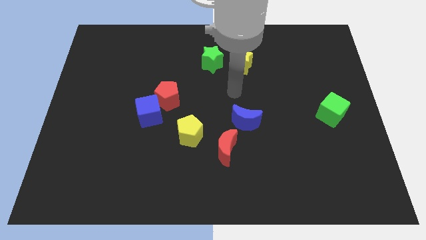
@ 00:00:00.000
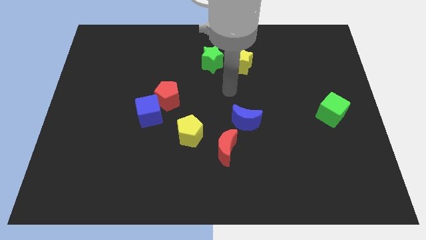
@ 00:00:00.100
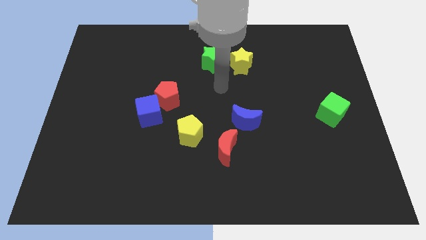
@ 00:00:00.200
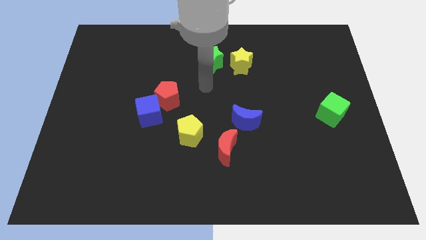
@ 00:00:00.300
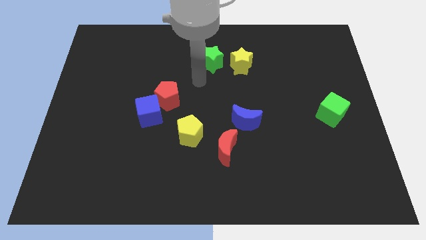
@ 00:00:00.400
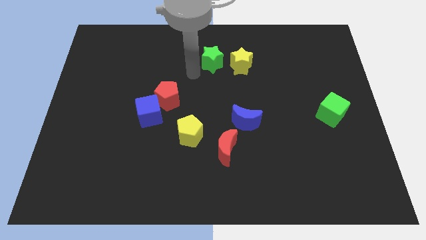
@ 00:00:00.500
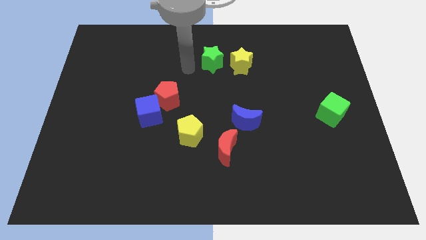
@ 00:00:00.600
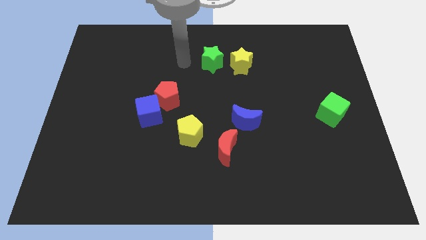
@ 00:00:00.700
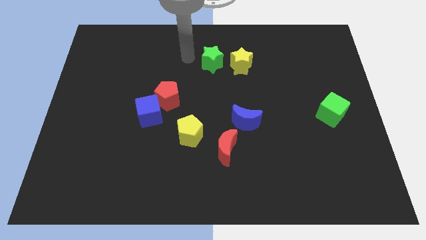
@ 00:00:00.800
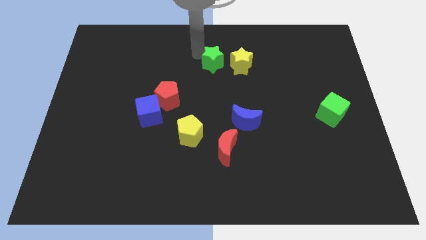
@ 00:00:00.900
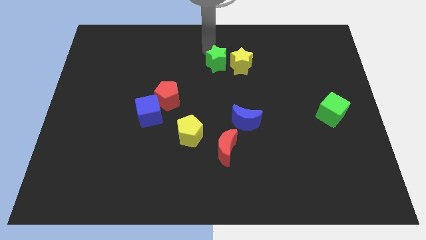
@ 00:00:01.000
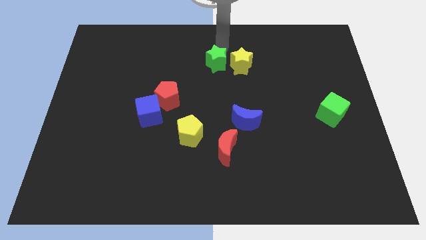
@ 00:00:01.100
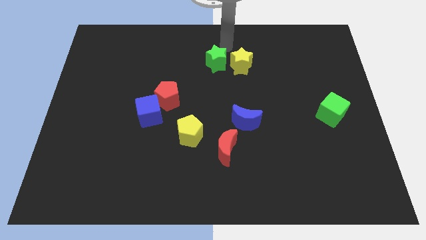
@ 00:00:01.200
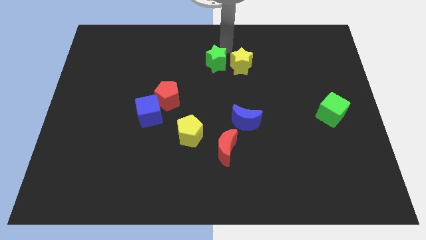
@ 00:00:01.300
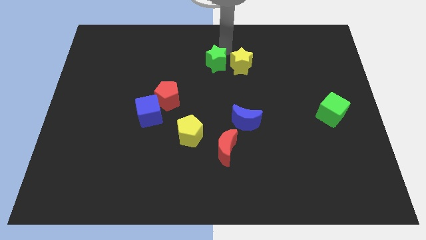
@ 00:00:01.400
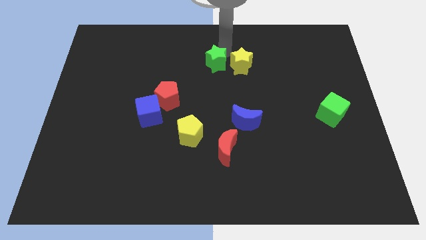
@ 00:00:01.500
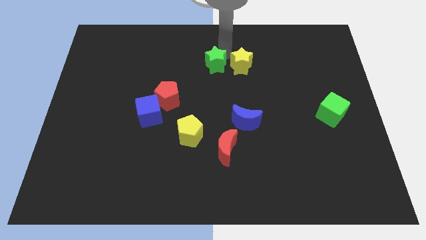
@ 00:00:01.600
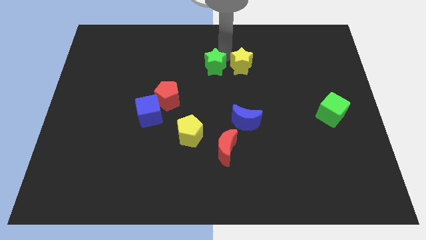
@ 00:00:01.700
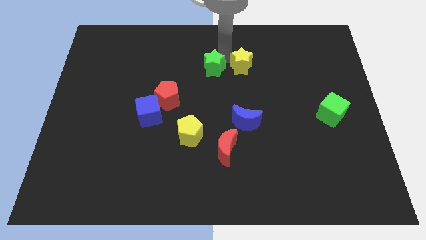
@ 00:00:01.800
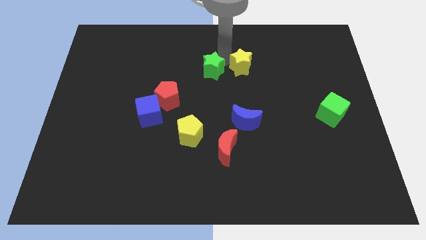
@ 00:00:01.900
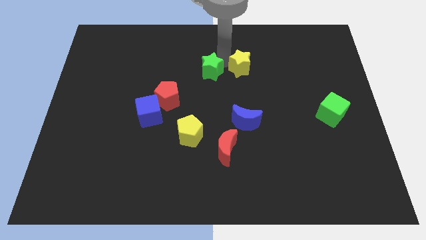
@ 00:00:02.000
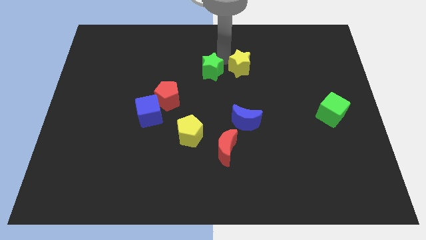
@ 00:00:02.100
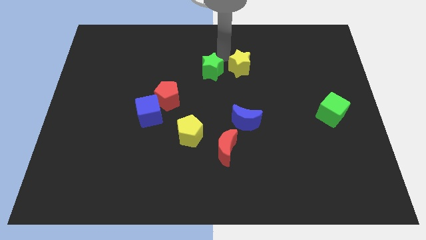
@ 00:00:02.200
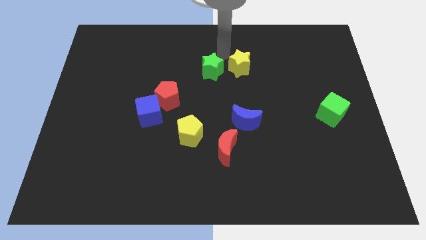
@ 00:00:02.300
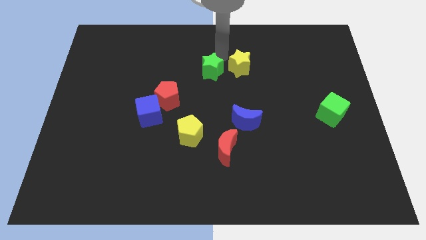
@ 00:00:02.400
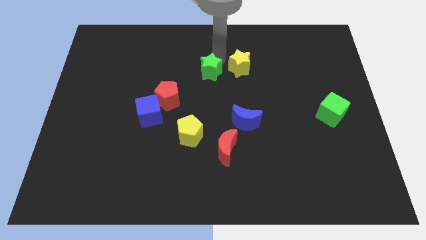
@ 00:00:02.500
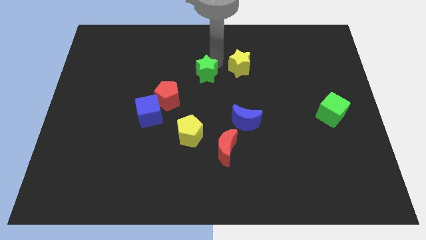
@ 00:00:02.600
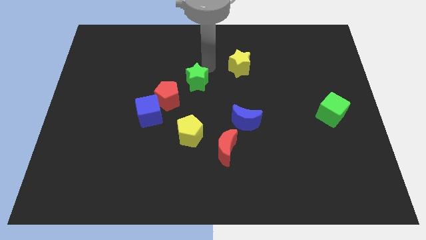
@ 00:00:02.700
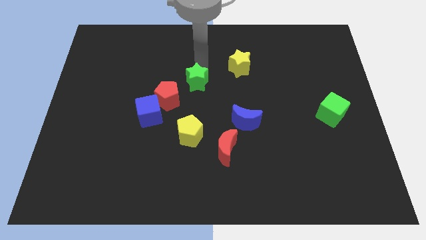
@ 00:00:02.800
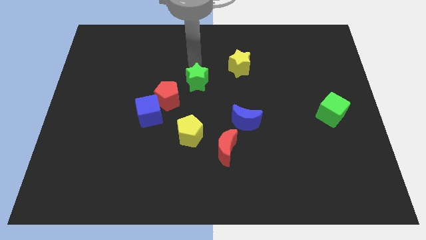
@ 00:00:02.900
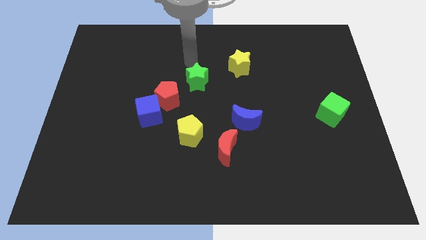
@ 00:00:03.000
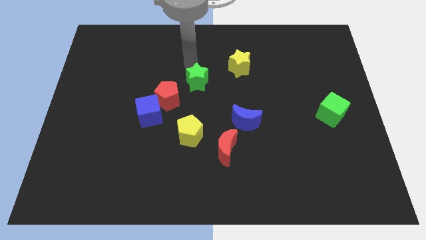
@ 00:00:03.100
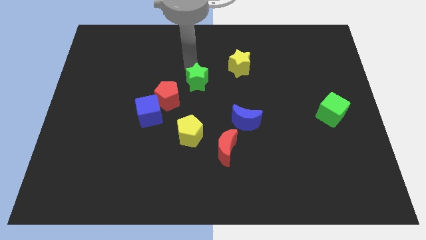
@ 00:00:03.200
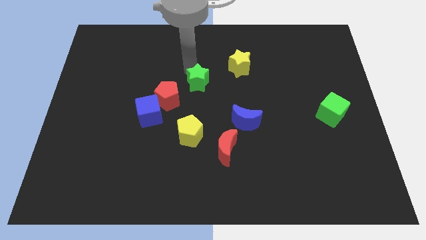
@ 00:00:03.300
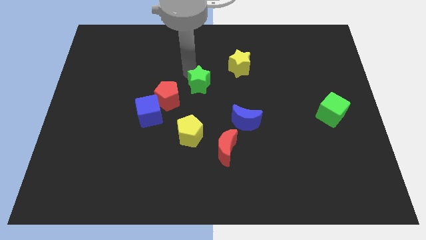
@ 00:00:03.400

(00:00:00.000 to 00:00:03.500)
slide the green star downwards a bit

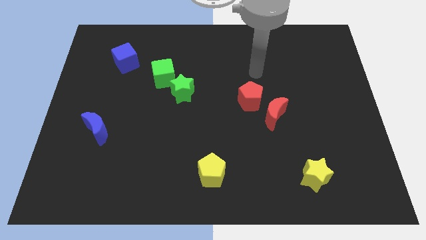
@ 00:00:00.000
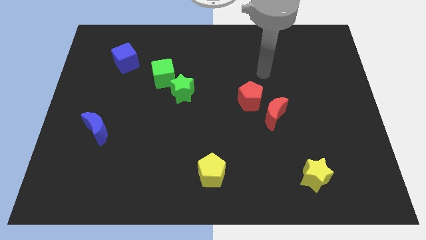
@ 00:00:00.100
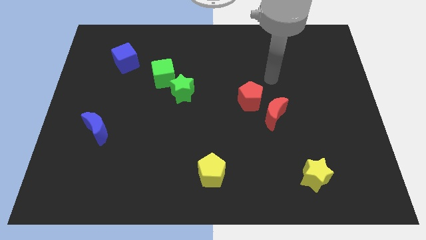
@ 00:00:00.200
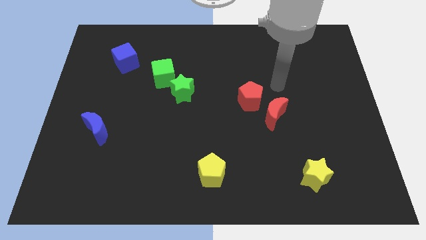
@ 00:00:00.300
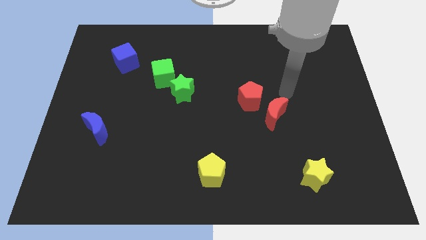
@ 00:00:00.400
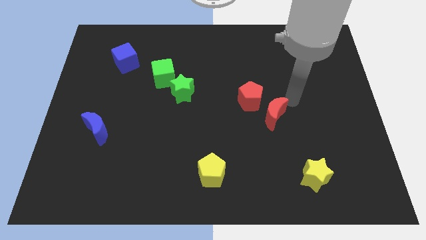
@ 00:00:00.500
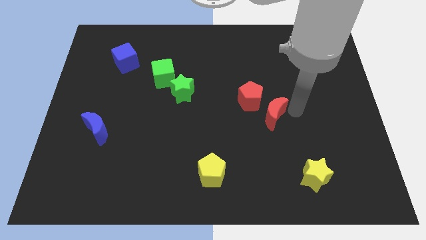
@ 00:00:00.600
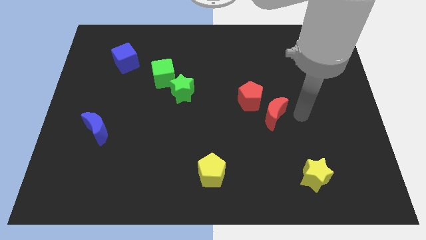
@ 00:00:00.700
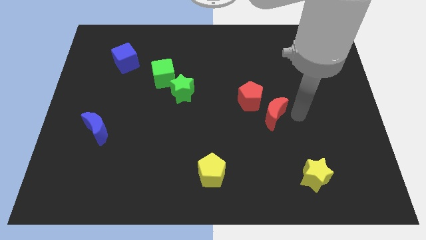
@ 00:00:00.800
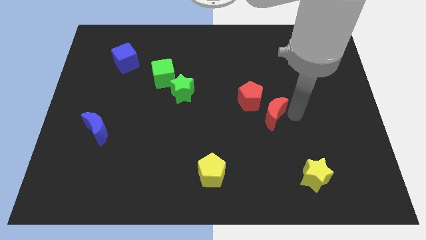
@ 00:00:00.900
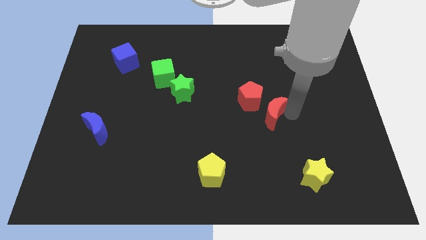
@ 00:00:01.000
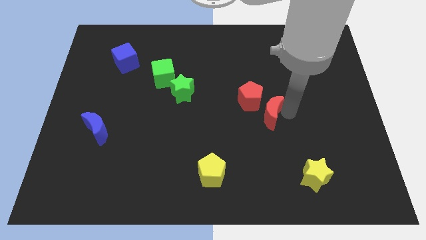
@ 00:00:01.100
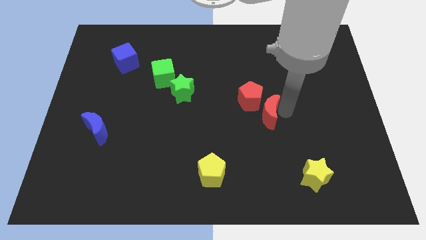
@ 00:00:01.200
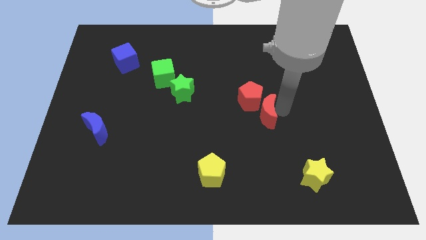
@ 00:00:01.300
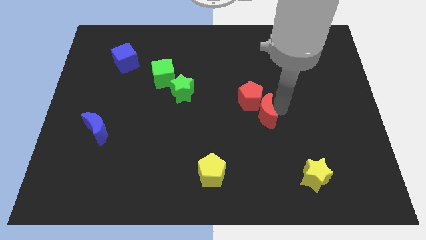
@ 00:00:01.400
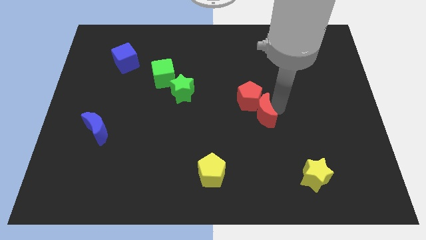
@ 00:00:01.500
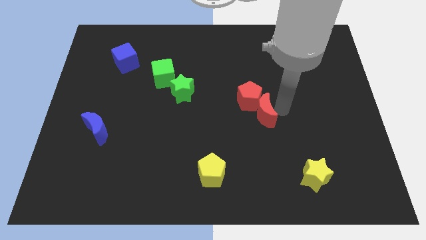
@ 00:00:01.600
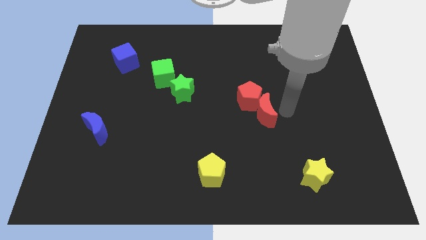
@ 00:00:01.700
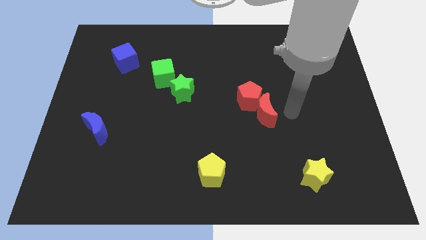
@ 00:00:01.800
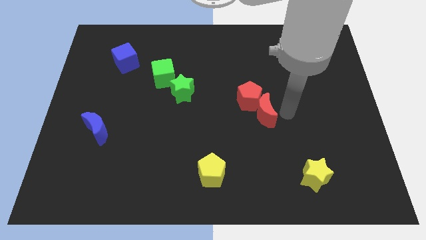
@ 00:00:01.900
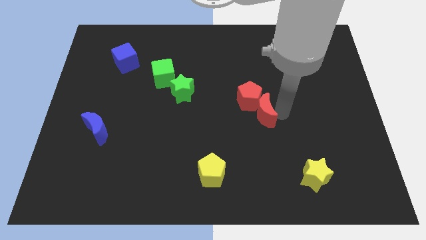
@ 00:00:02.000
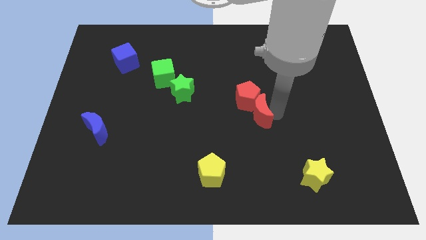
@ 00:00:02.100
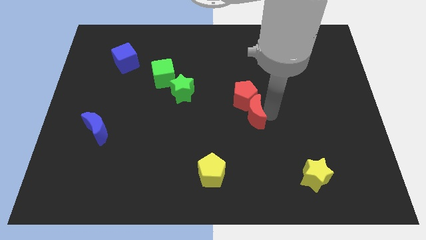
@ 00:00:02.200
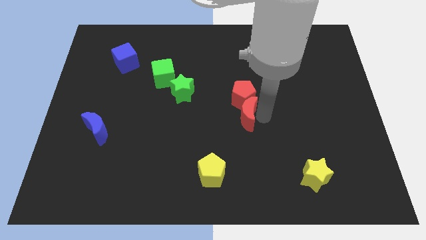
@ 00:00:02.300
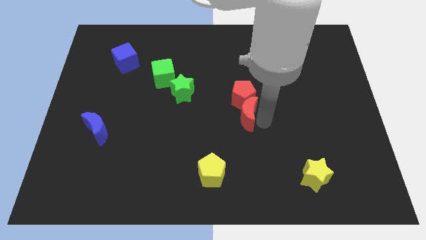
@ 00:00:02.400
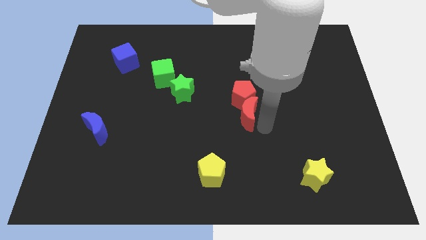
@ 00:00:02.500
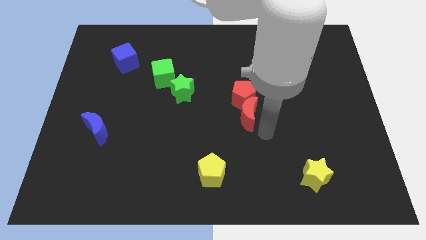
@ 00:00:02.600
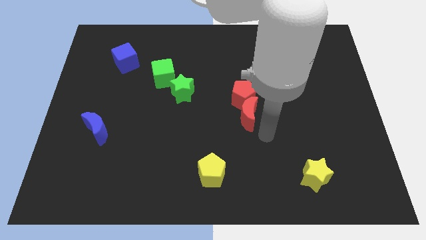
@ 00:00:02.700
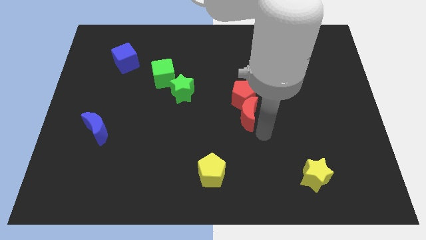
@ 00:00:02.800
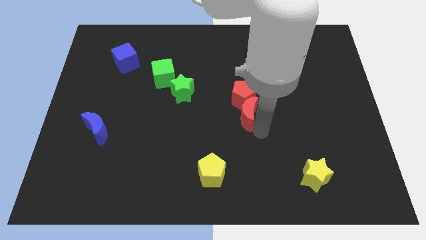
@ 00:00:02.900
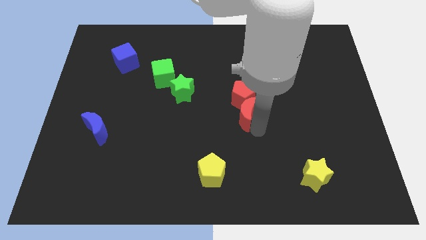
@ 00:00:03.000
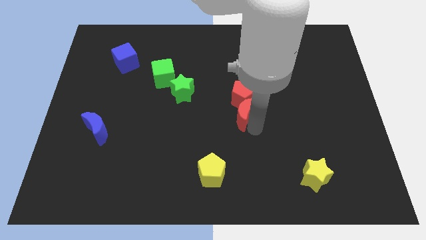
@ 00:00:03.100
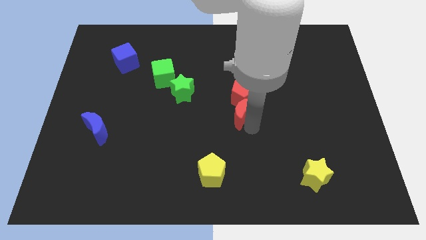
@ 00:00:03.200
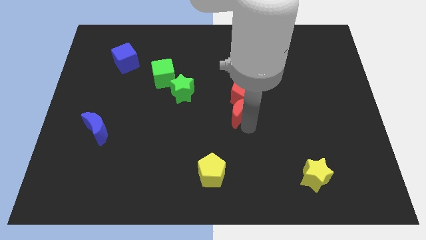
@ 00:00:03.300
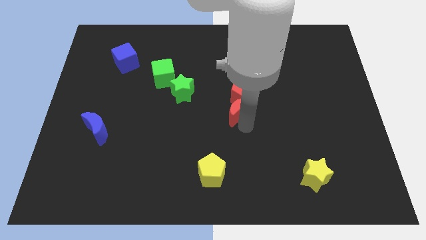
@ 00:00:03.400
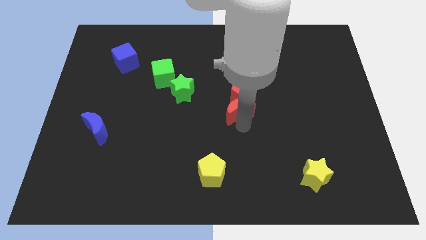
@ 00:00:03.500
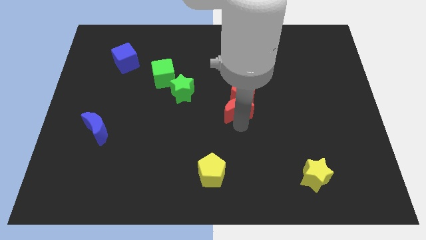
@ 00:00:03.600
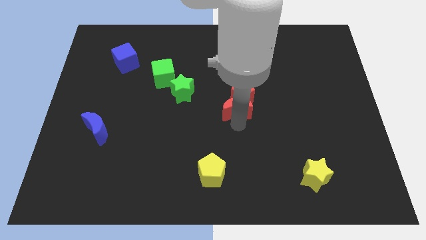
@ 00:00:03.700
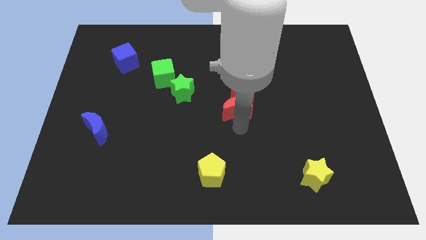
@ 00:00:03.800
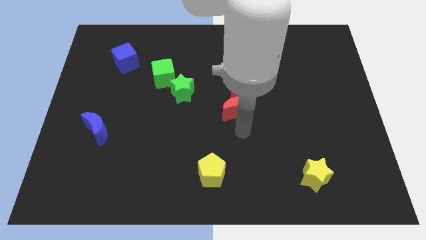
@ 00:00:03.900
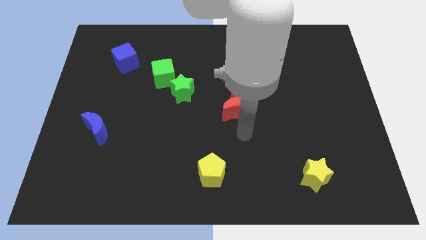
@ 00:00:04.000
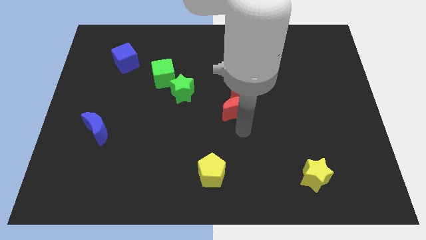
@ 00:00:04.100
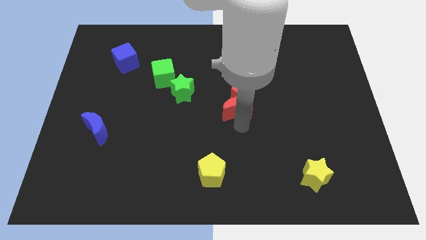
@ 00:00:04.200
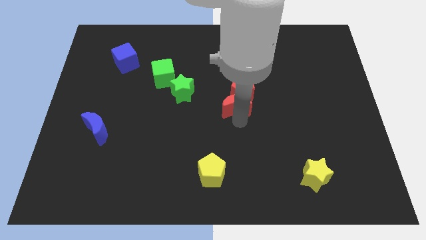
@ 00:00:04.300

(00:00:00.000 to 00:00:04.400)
slightly slide the red moon up and then left

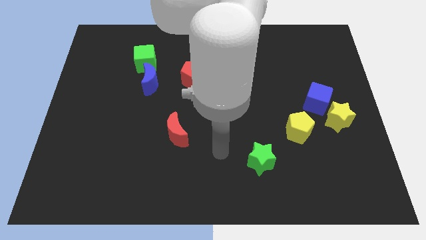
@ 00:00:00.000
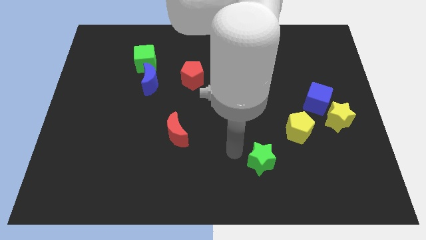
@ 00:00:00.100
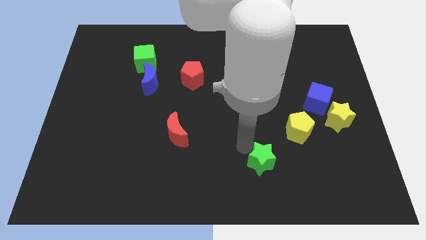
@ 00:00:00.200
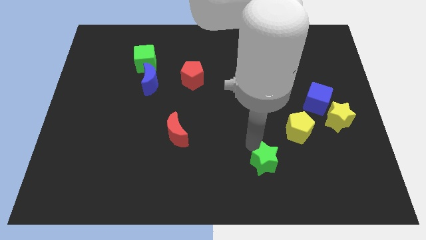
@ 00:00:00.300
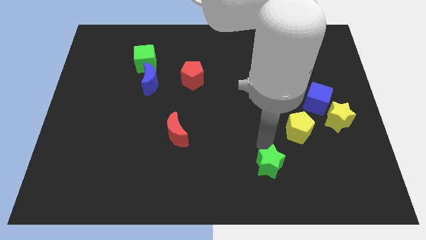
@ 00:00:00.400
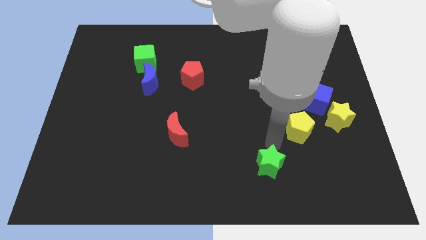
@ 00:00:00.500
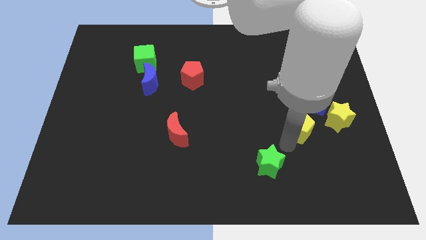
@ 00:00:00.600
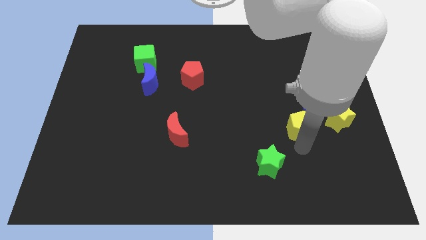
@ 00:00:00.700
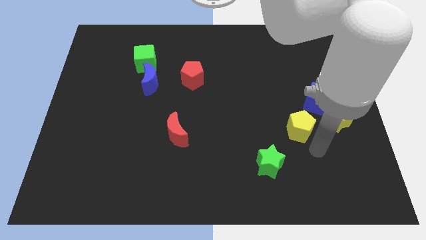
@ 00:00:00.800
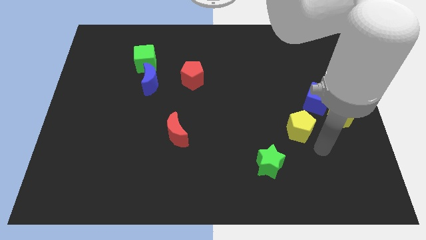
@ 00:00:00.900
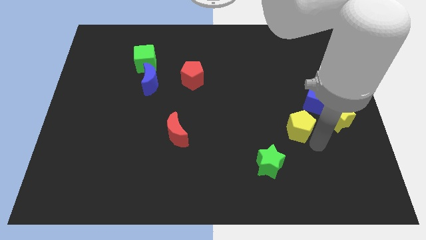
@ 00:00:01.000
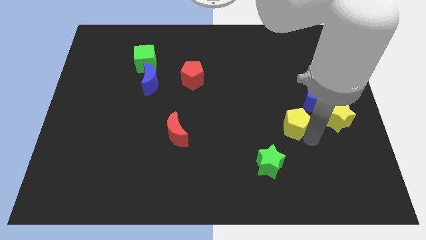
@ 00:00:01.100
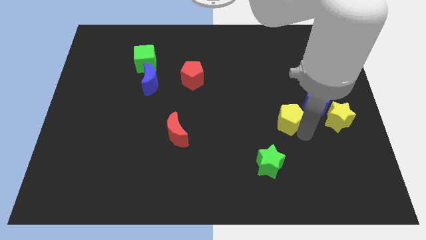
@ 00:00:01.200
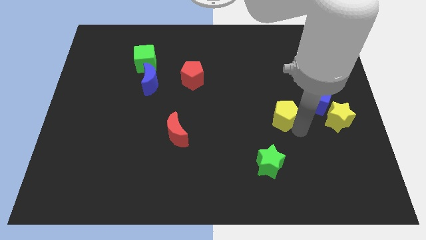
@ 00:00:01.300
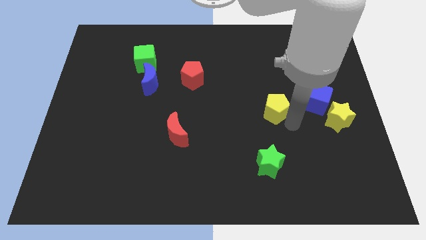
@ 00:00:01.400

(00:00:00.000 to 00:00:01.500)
slightly move the yellow pentagon upwards and left diagonally
